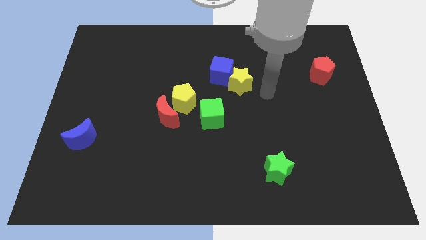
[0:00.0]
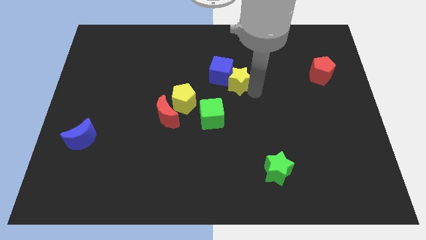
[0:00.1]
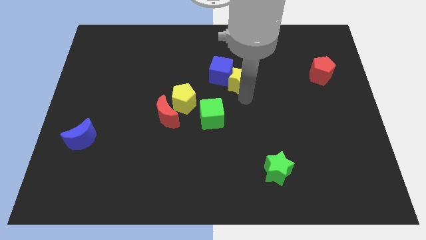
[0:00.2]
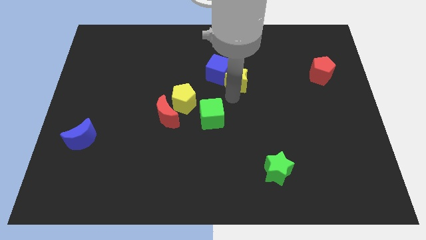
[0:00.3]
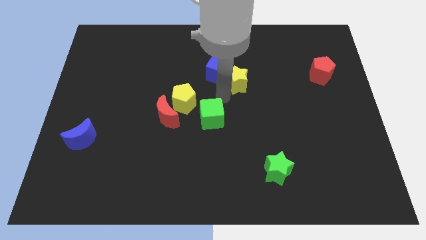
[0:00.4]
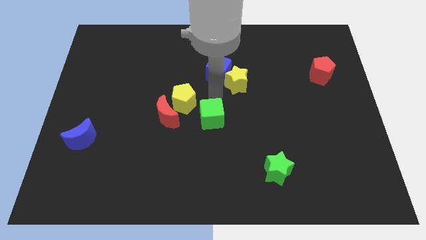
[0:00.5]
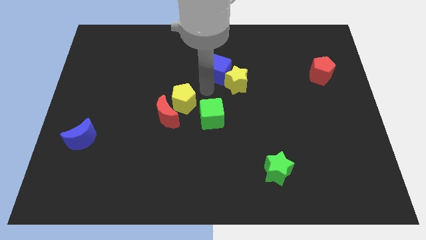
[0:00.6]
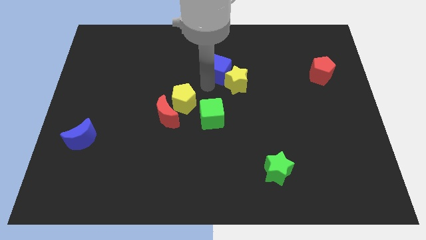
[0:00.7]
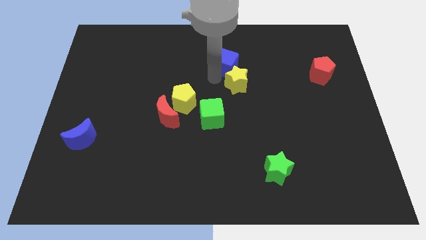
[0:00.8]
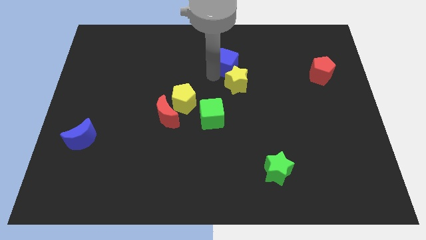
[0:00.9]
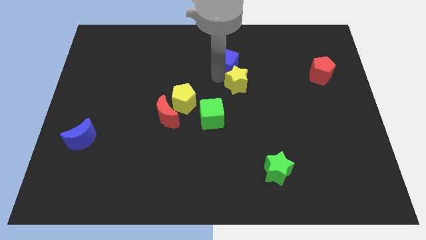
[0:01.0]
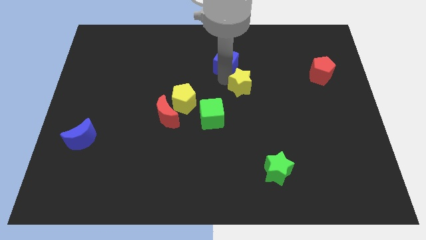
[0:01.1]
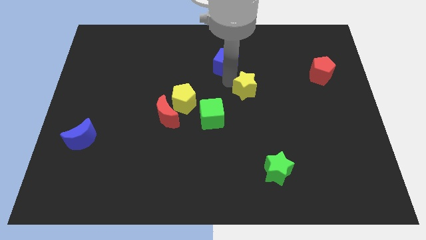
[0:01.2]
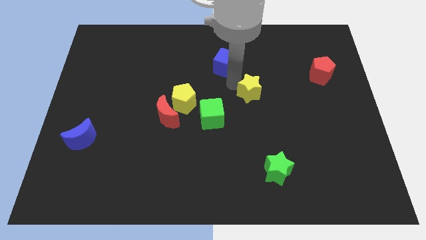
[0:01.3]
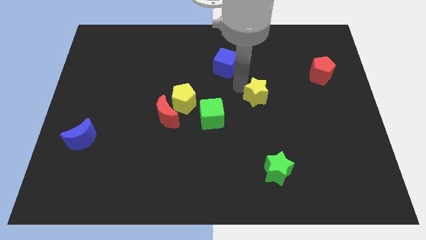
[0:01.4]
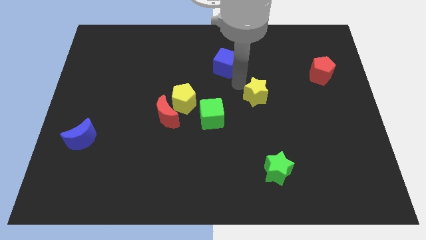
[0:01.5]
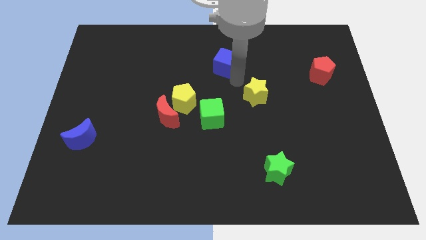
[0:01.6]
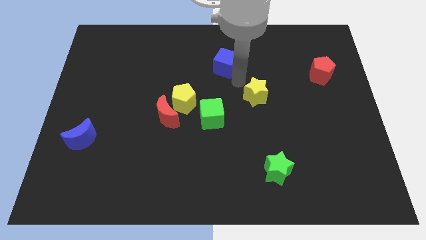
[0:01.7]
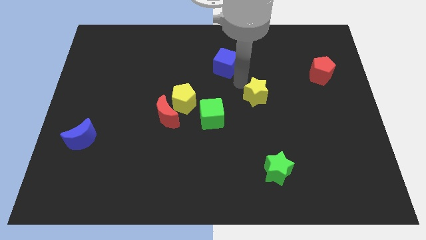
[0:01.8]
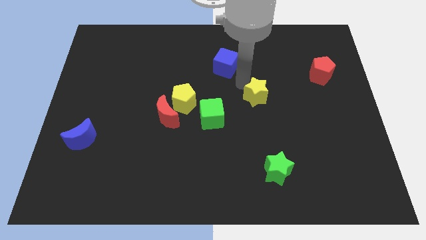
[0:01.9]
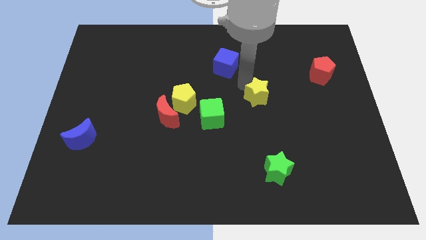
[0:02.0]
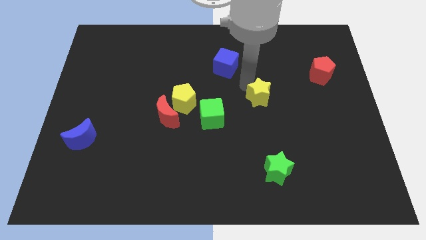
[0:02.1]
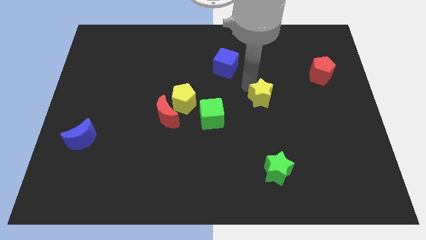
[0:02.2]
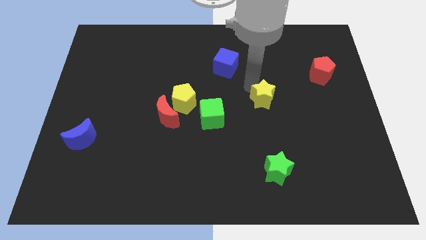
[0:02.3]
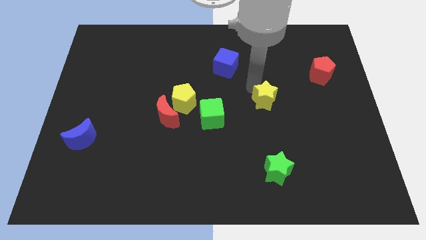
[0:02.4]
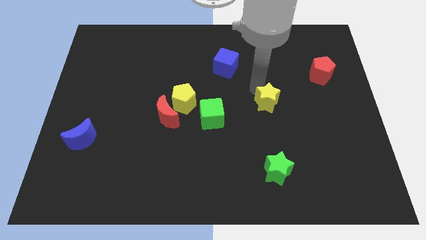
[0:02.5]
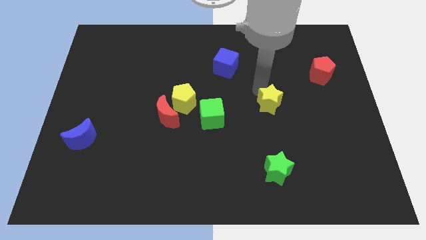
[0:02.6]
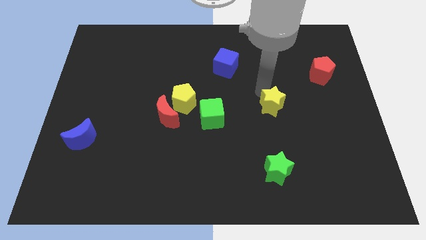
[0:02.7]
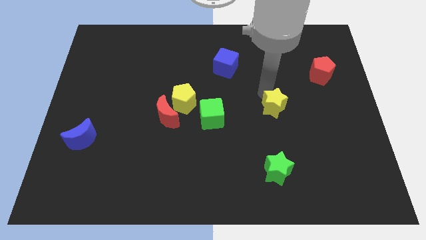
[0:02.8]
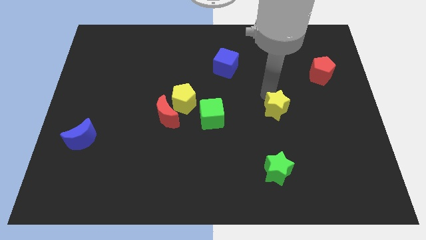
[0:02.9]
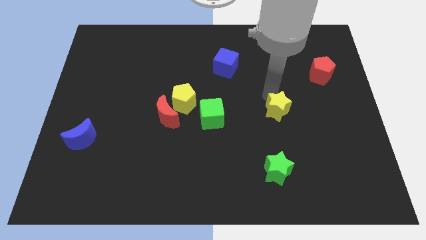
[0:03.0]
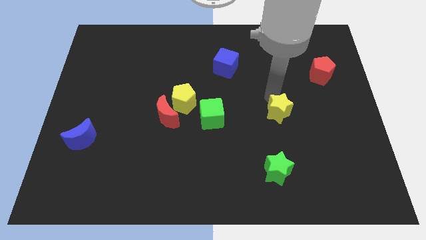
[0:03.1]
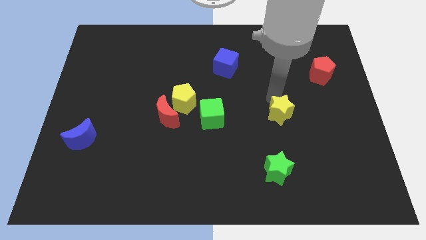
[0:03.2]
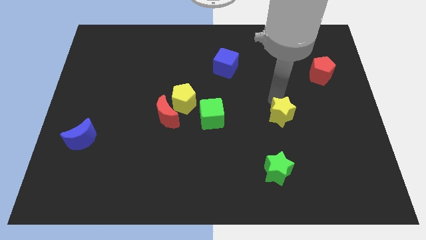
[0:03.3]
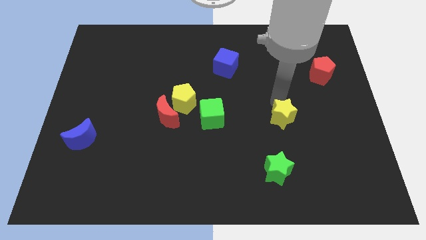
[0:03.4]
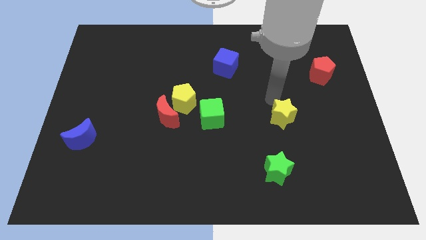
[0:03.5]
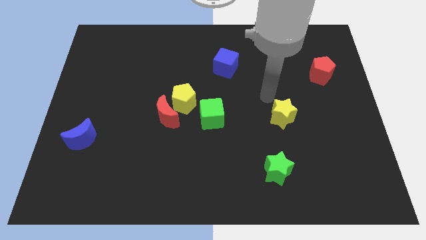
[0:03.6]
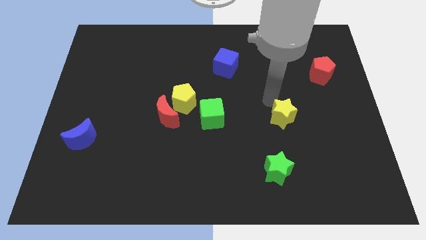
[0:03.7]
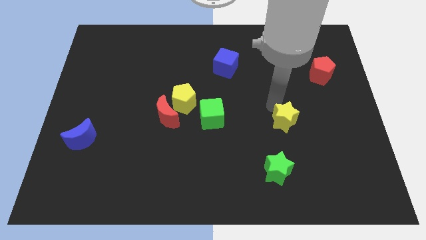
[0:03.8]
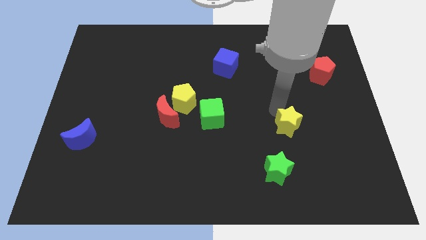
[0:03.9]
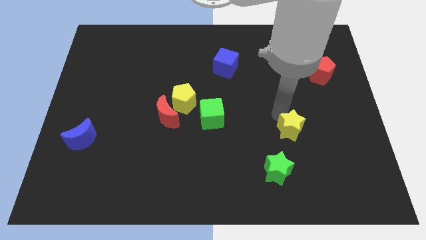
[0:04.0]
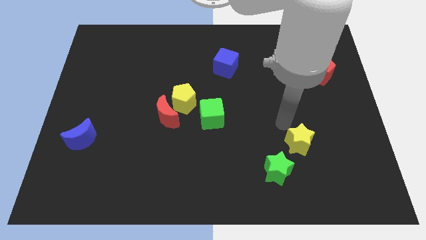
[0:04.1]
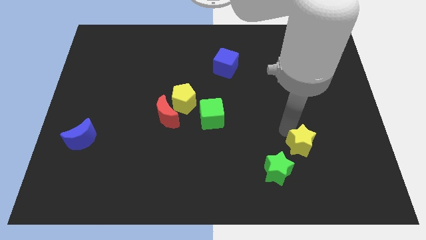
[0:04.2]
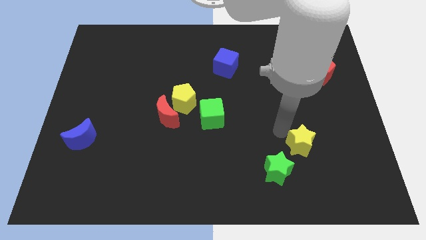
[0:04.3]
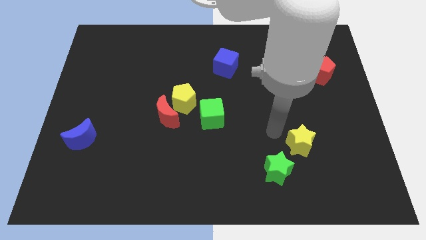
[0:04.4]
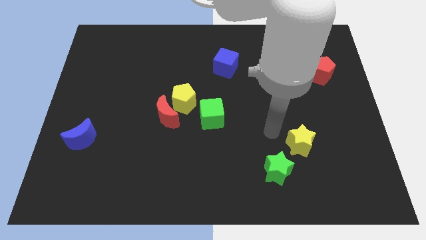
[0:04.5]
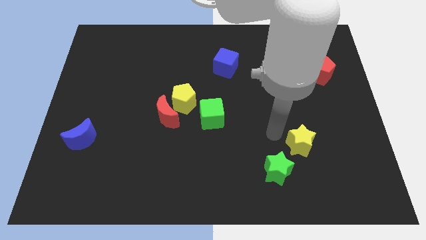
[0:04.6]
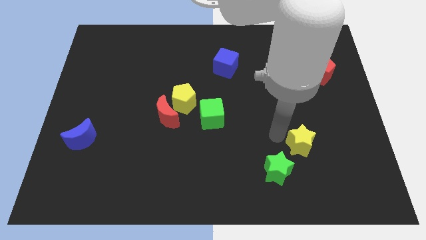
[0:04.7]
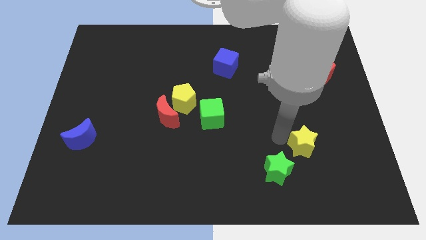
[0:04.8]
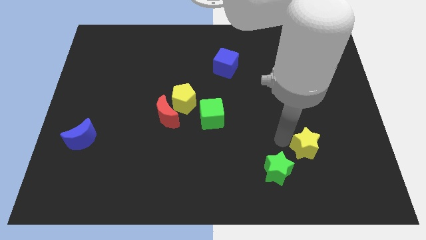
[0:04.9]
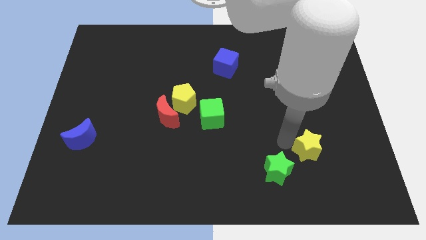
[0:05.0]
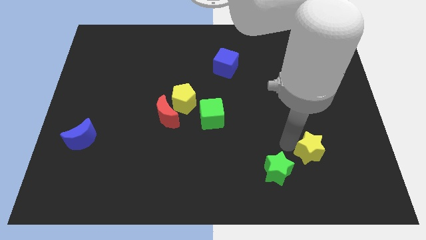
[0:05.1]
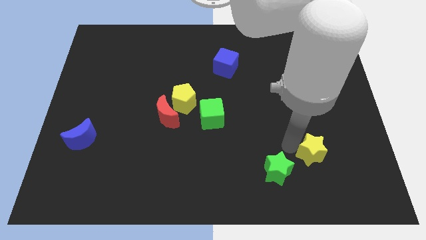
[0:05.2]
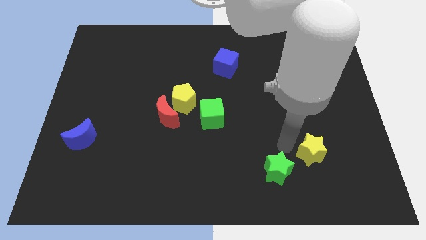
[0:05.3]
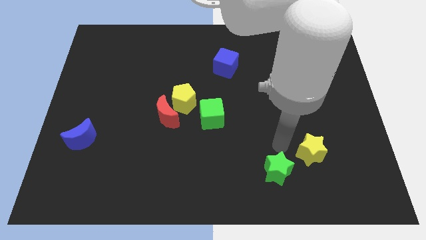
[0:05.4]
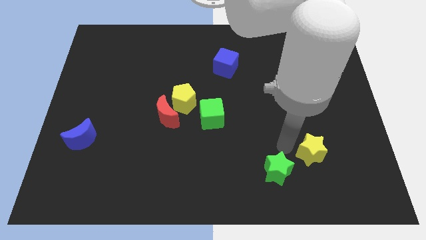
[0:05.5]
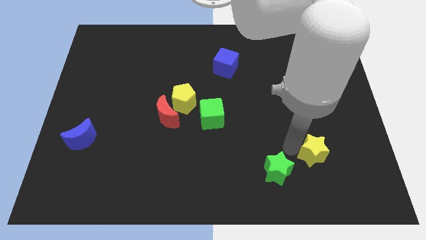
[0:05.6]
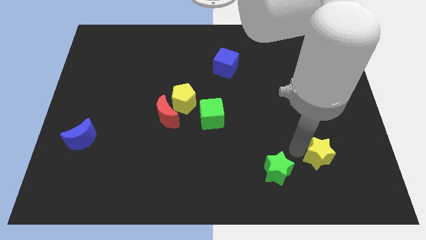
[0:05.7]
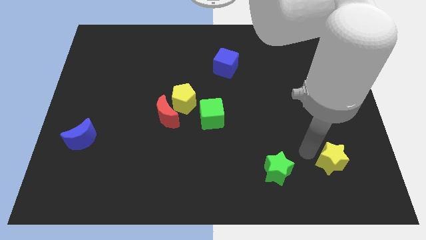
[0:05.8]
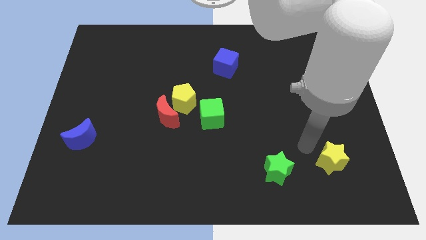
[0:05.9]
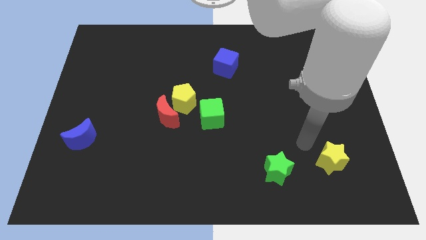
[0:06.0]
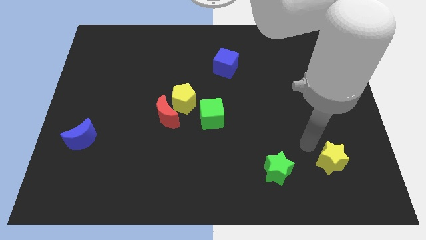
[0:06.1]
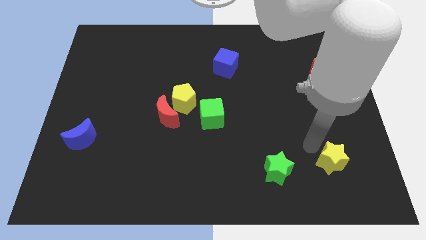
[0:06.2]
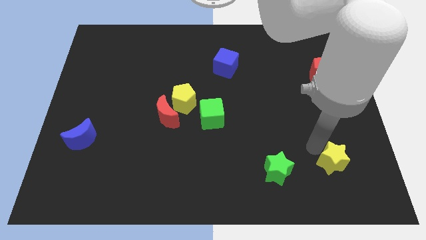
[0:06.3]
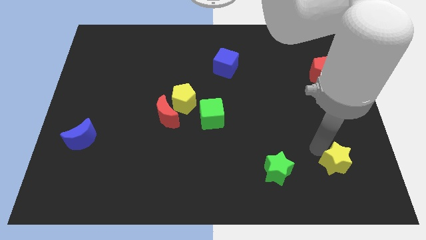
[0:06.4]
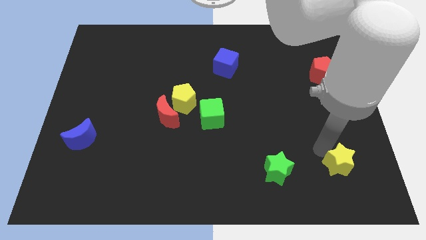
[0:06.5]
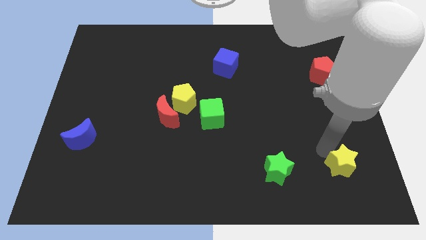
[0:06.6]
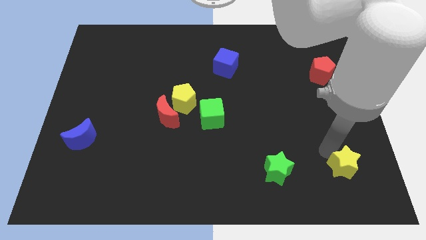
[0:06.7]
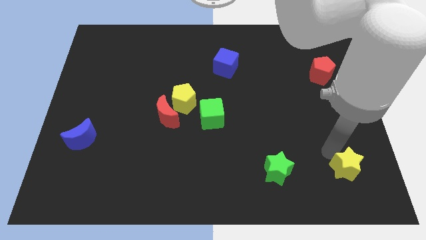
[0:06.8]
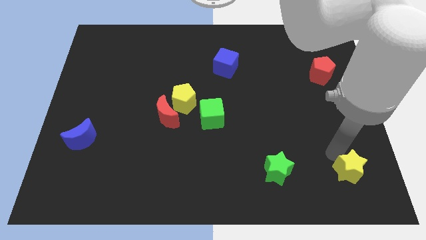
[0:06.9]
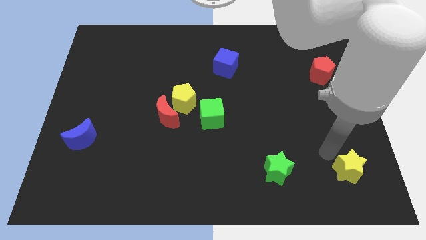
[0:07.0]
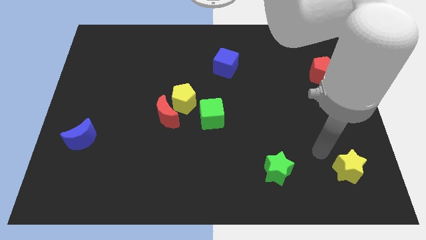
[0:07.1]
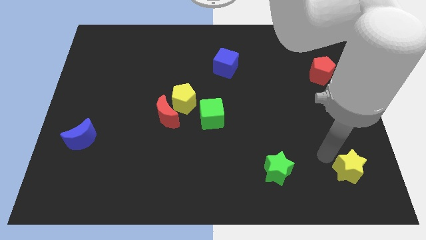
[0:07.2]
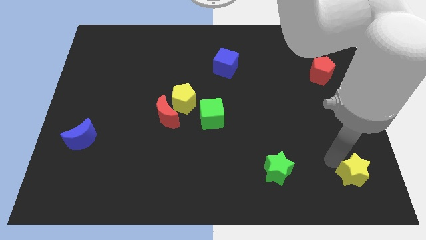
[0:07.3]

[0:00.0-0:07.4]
put the yellow star to the bottom right of the board
